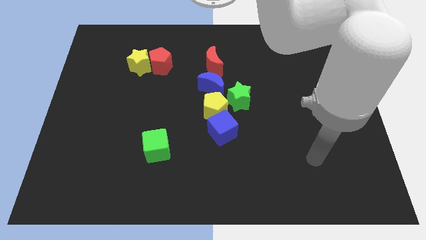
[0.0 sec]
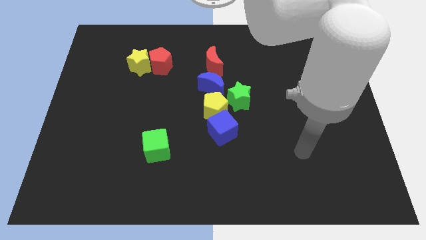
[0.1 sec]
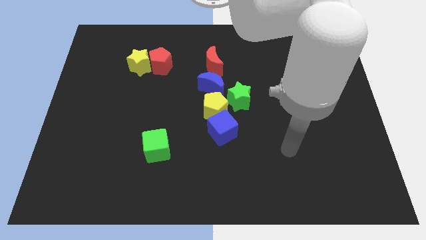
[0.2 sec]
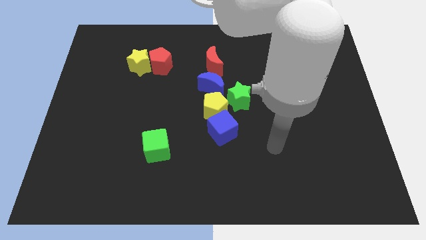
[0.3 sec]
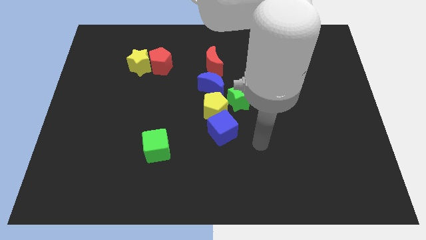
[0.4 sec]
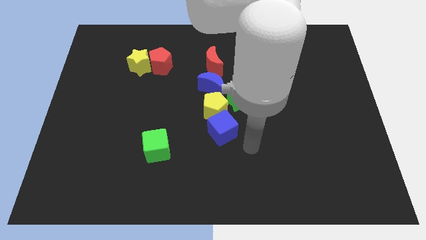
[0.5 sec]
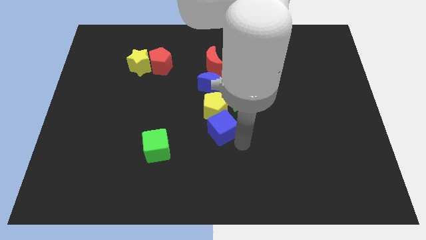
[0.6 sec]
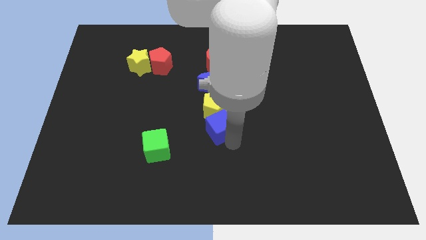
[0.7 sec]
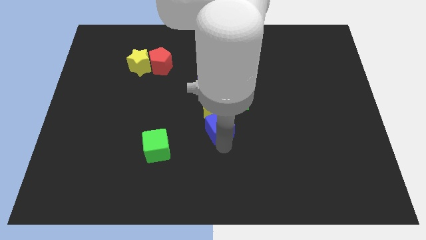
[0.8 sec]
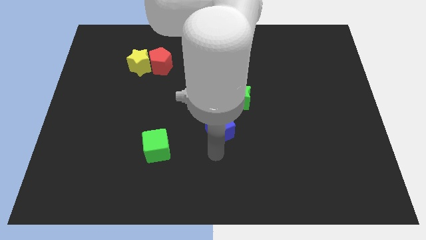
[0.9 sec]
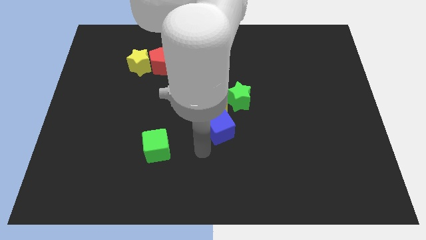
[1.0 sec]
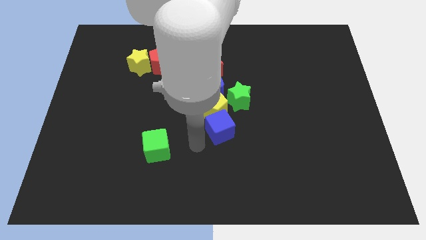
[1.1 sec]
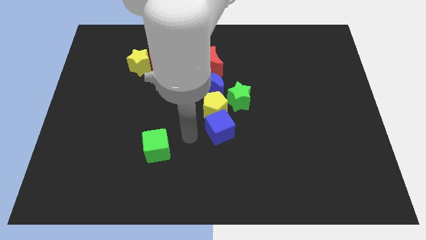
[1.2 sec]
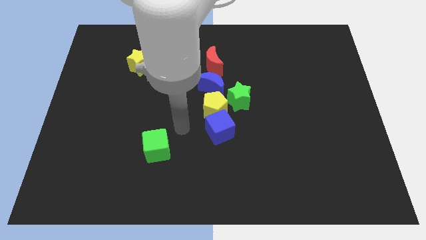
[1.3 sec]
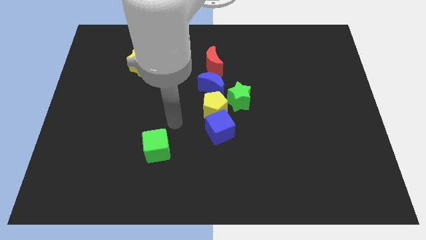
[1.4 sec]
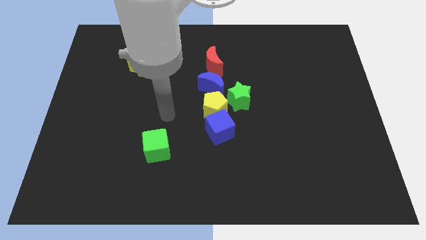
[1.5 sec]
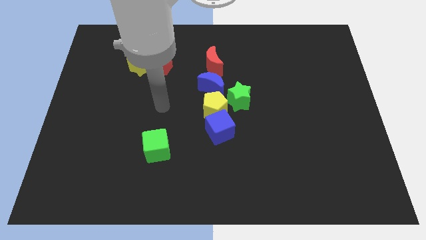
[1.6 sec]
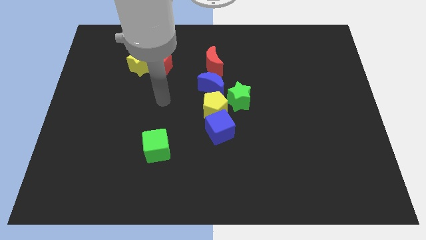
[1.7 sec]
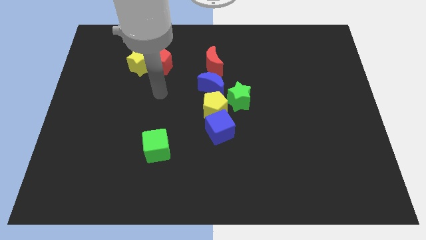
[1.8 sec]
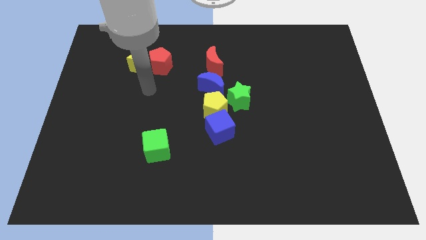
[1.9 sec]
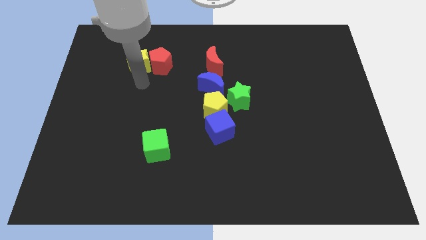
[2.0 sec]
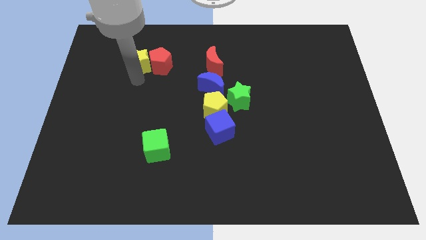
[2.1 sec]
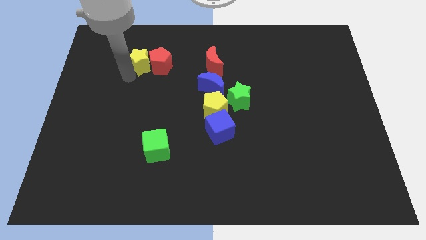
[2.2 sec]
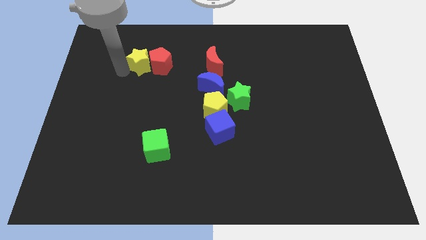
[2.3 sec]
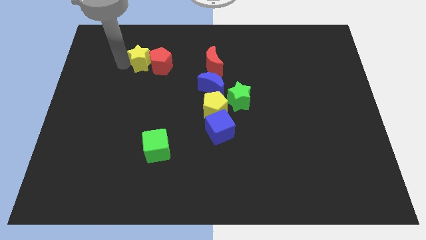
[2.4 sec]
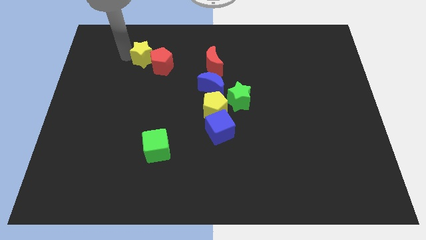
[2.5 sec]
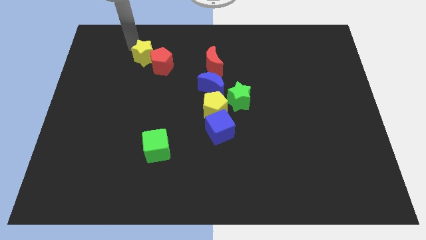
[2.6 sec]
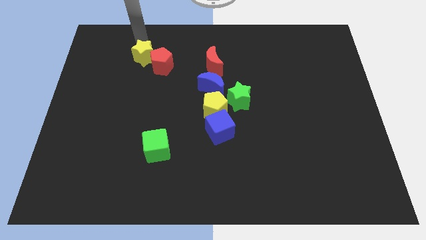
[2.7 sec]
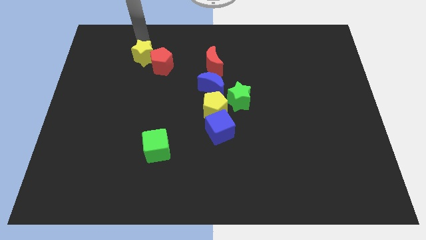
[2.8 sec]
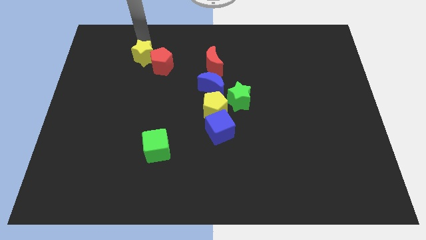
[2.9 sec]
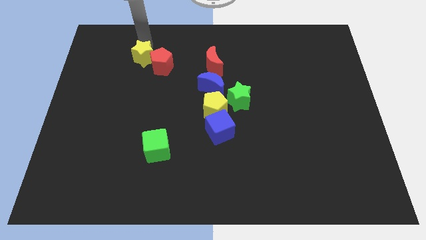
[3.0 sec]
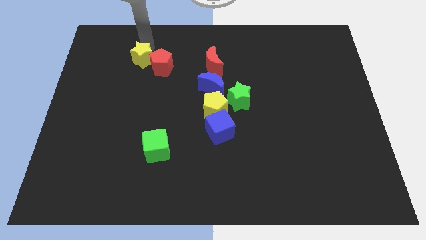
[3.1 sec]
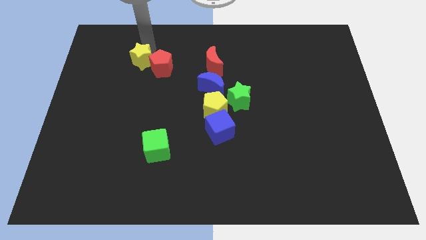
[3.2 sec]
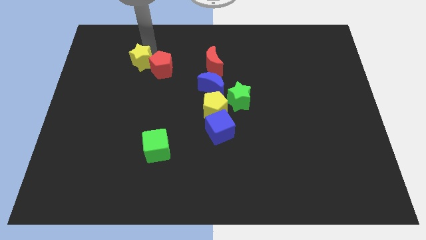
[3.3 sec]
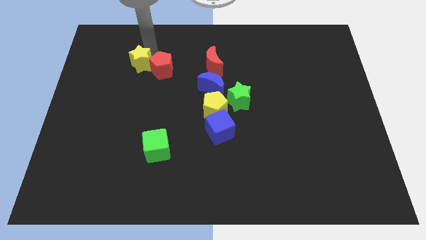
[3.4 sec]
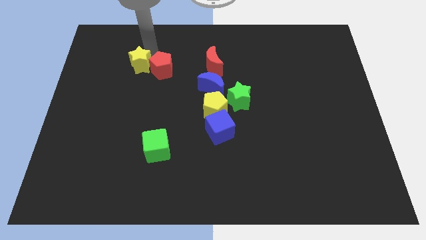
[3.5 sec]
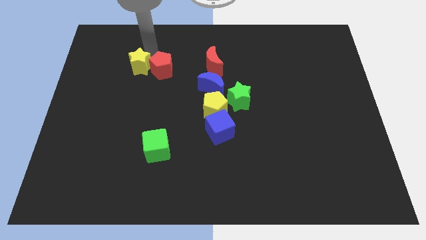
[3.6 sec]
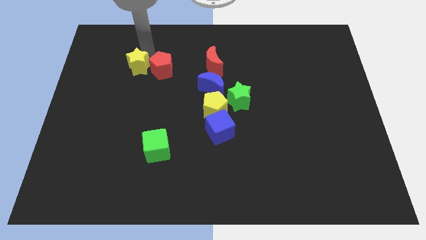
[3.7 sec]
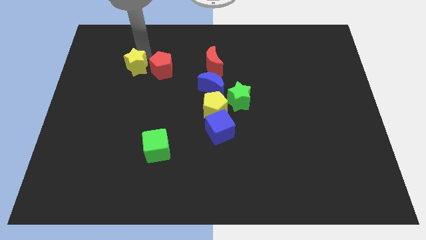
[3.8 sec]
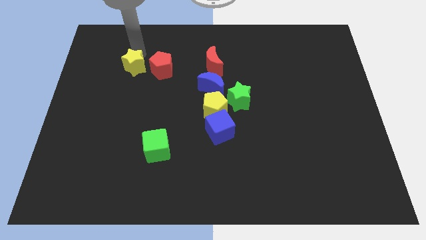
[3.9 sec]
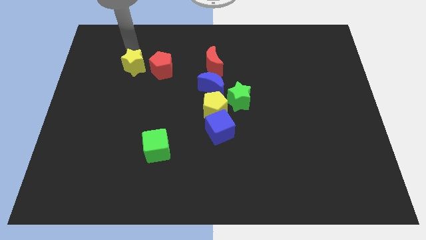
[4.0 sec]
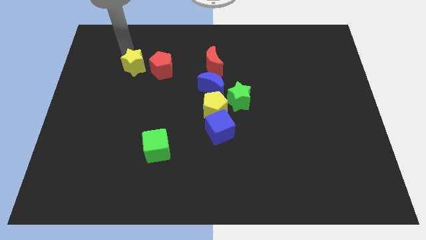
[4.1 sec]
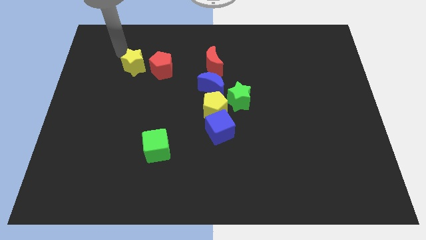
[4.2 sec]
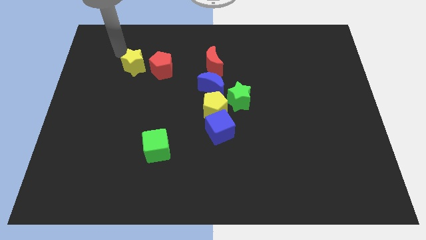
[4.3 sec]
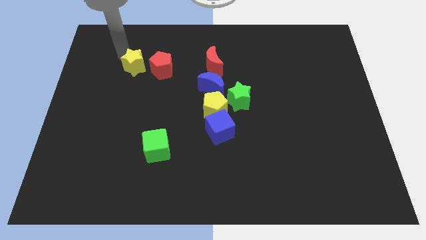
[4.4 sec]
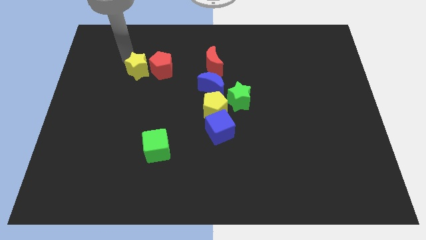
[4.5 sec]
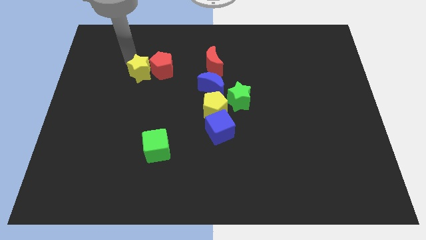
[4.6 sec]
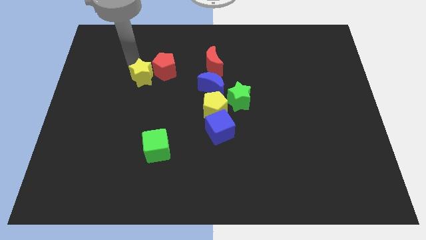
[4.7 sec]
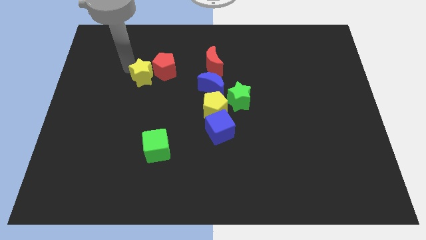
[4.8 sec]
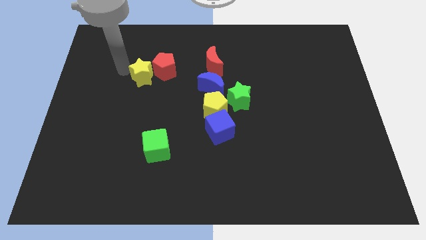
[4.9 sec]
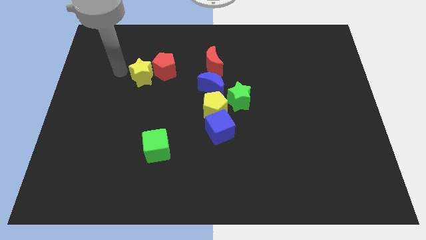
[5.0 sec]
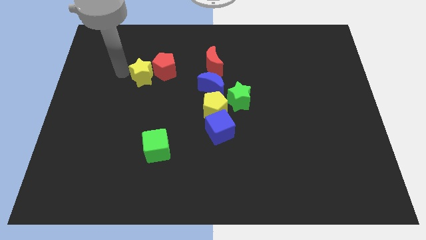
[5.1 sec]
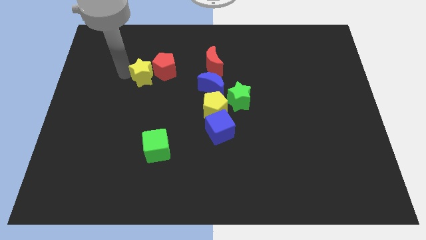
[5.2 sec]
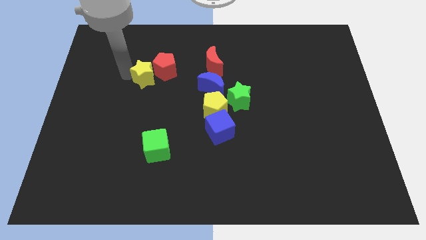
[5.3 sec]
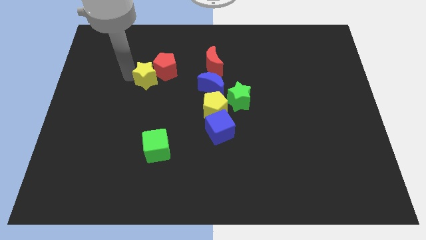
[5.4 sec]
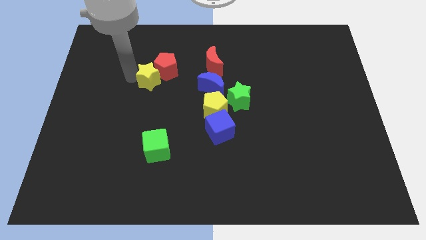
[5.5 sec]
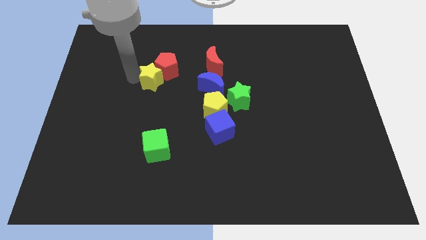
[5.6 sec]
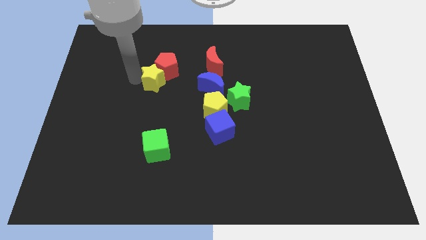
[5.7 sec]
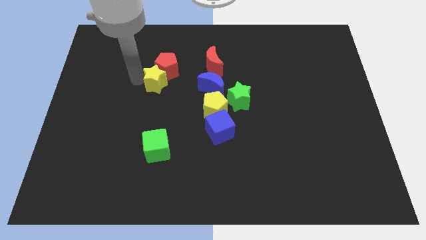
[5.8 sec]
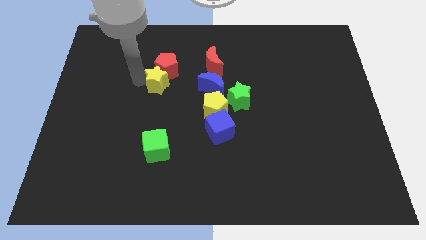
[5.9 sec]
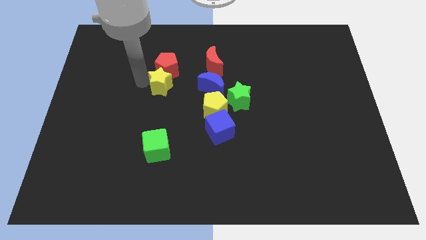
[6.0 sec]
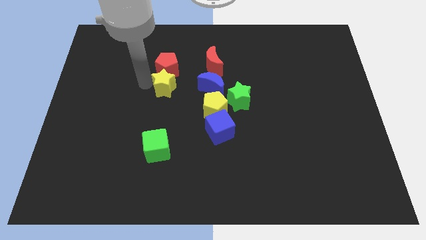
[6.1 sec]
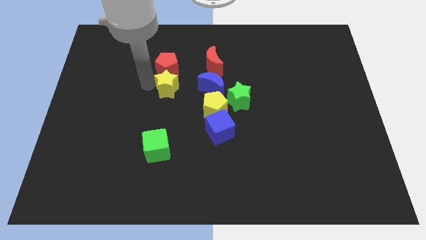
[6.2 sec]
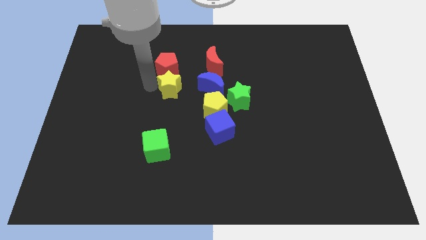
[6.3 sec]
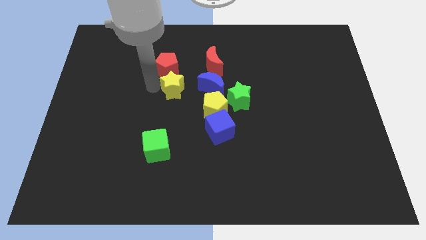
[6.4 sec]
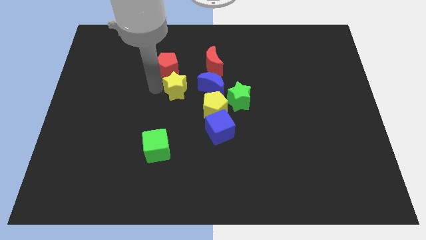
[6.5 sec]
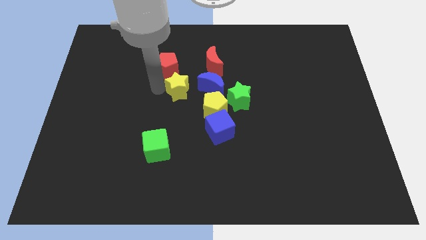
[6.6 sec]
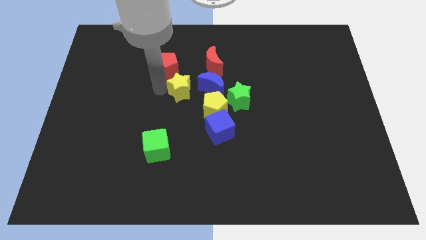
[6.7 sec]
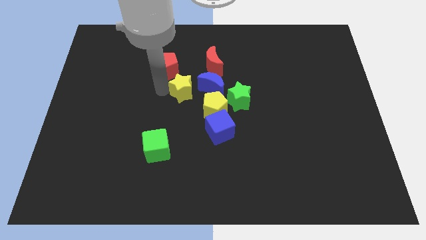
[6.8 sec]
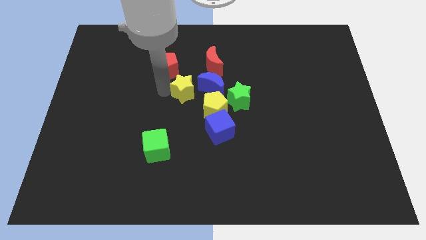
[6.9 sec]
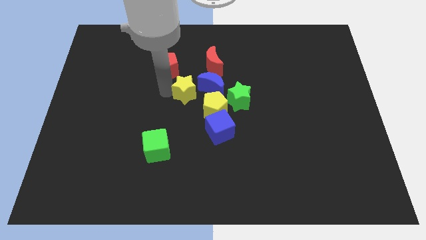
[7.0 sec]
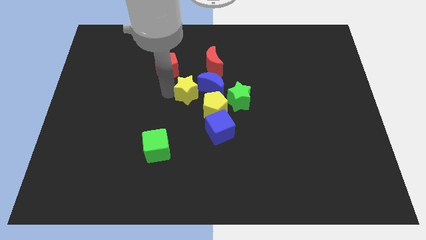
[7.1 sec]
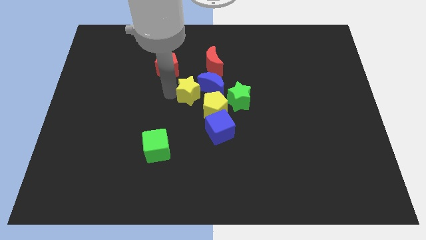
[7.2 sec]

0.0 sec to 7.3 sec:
put the yellow star to the blue moon

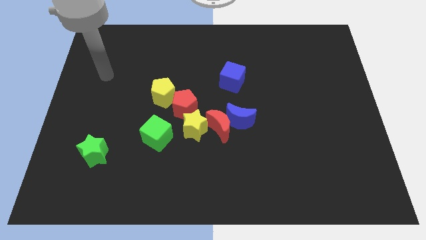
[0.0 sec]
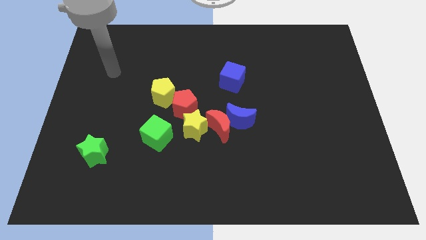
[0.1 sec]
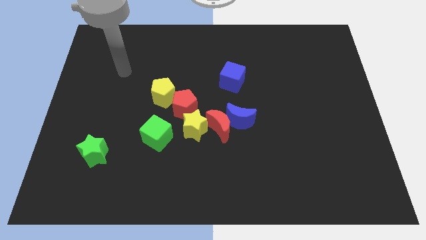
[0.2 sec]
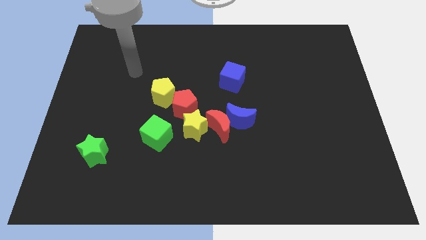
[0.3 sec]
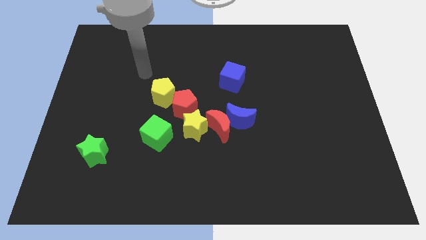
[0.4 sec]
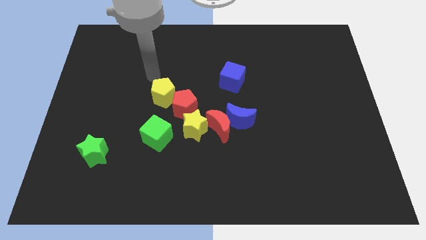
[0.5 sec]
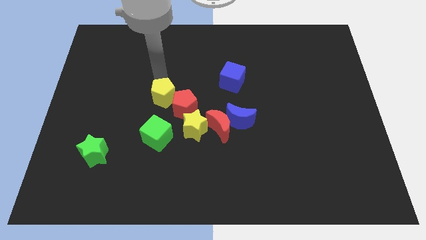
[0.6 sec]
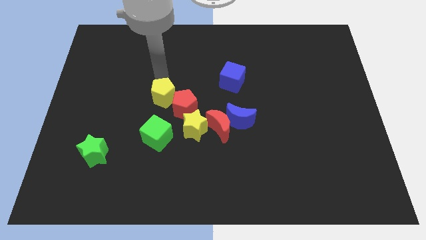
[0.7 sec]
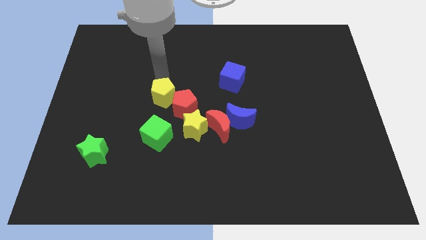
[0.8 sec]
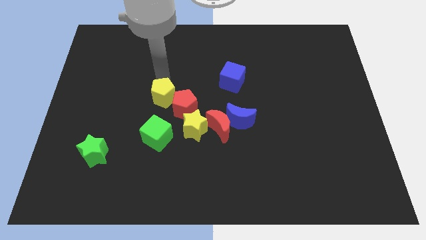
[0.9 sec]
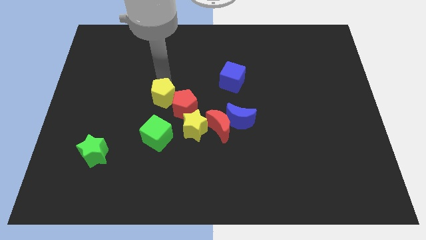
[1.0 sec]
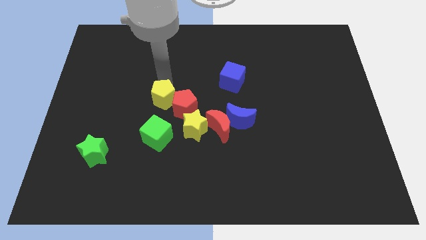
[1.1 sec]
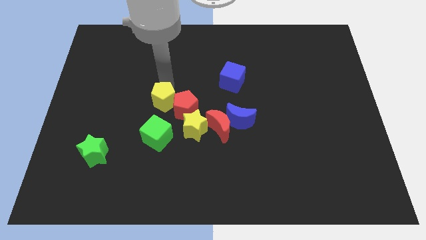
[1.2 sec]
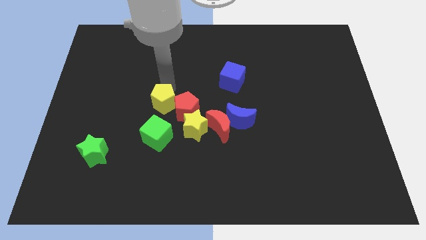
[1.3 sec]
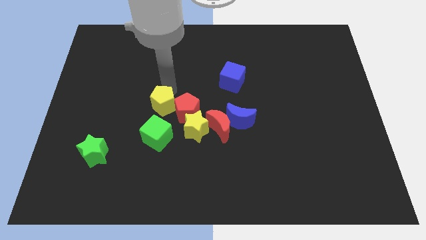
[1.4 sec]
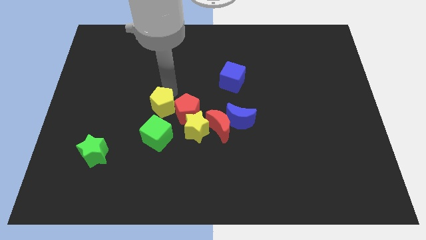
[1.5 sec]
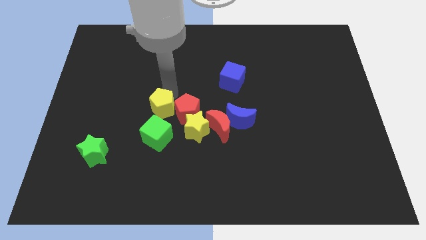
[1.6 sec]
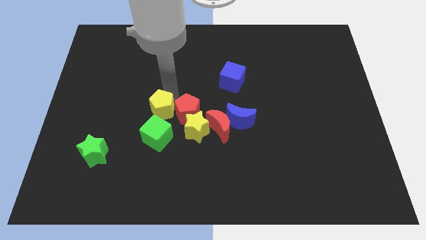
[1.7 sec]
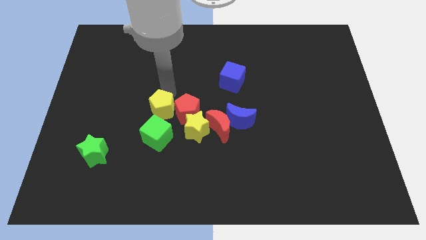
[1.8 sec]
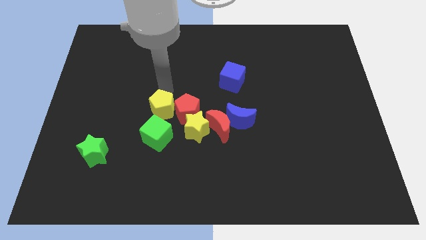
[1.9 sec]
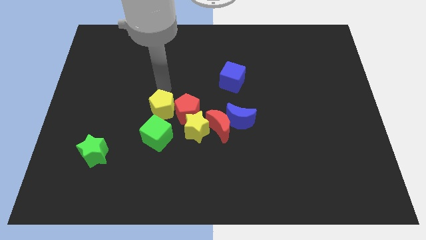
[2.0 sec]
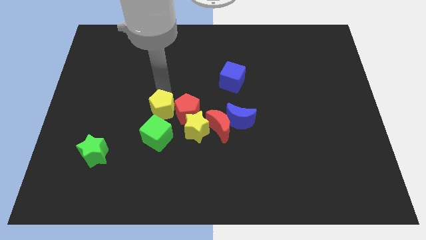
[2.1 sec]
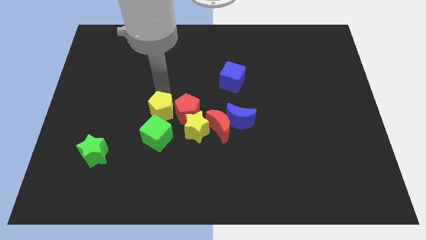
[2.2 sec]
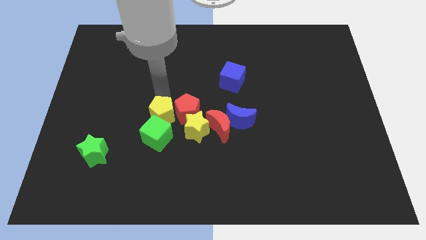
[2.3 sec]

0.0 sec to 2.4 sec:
slide the yellow pentagon next to the green cube
